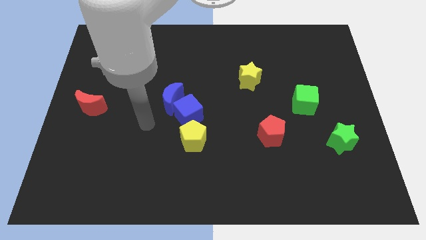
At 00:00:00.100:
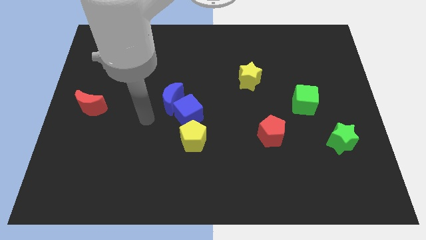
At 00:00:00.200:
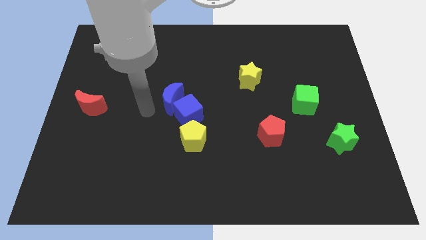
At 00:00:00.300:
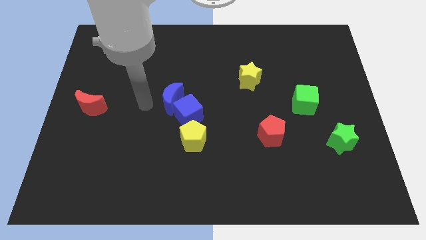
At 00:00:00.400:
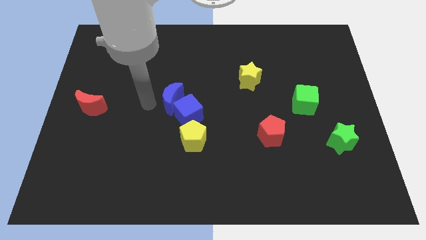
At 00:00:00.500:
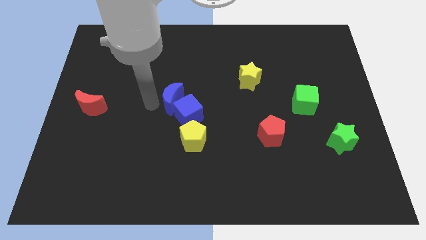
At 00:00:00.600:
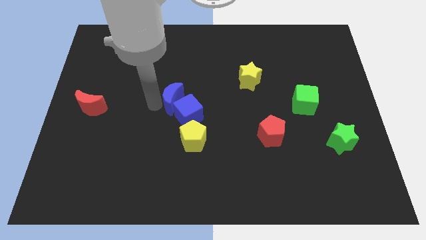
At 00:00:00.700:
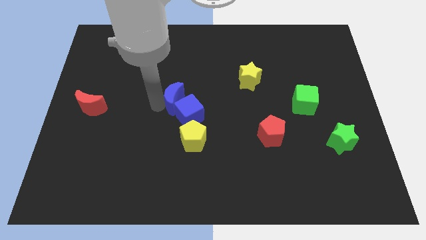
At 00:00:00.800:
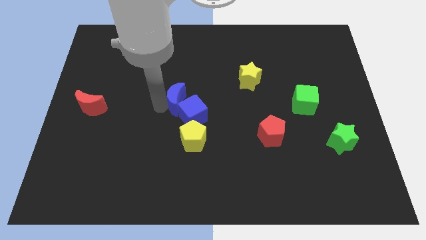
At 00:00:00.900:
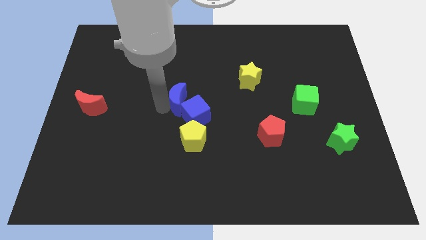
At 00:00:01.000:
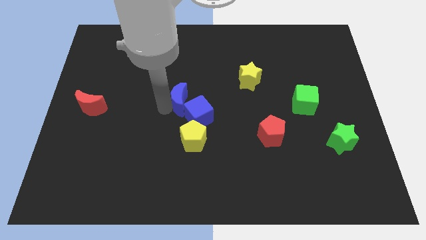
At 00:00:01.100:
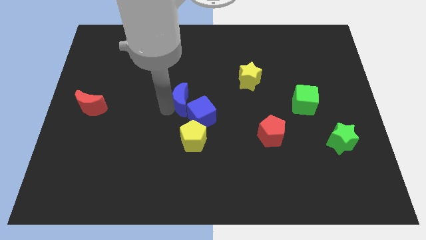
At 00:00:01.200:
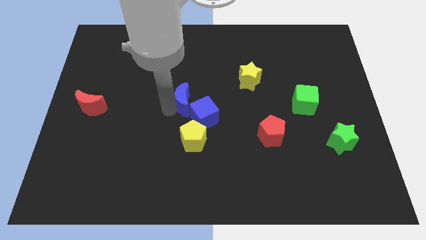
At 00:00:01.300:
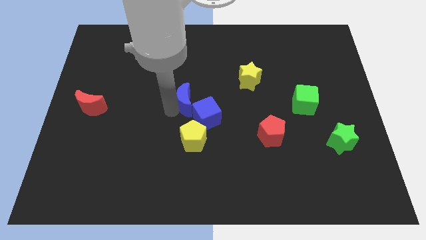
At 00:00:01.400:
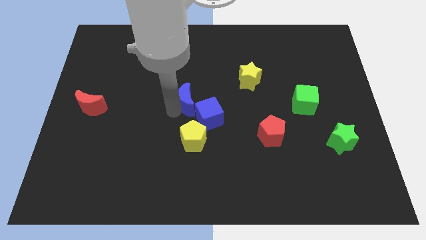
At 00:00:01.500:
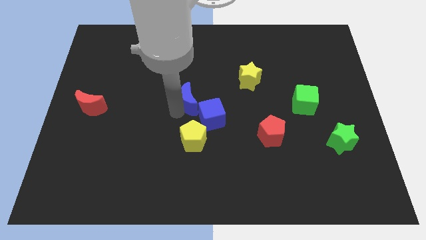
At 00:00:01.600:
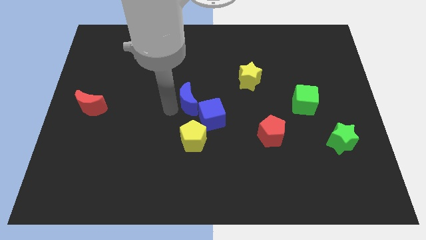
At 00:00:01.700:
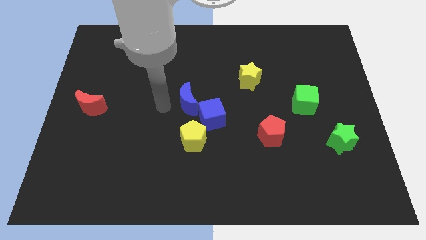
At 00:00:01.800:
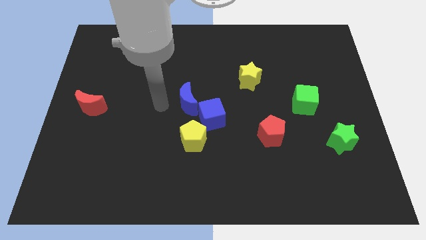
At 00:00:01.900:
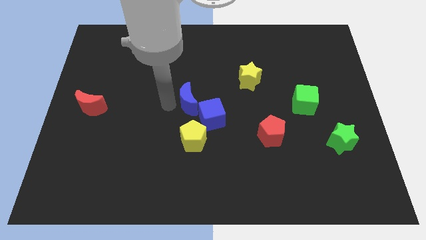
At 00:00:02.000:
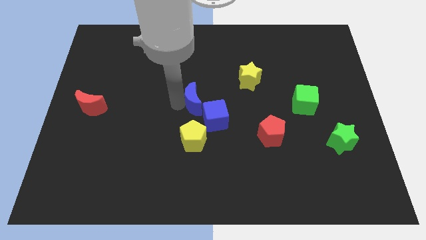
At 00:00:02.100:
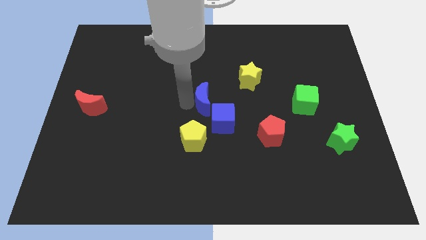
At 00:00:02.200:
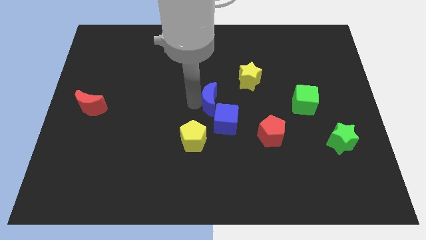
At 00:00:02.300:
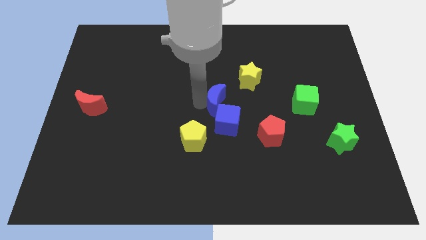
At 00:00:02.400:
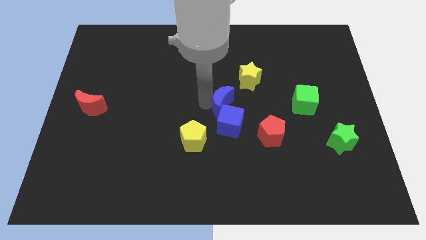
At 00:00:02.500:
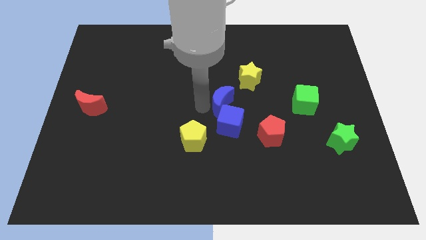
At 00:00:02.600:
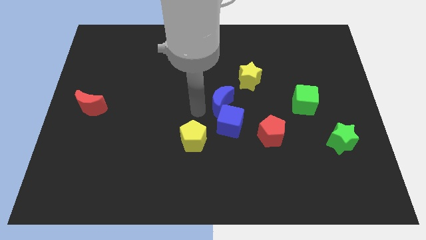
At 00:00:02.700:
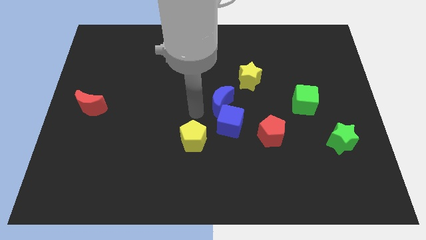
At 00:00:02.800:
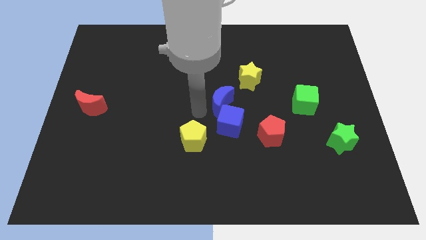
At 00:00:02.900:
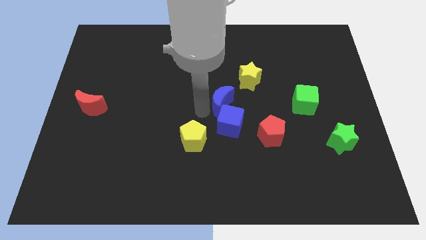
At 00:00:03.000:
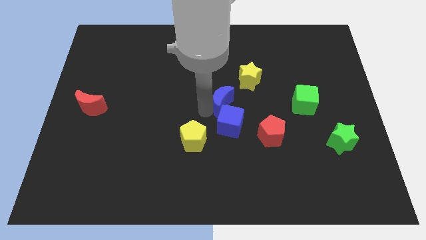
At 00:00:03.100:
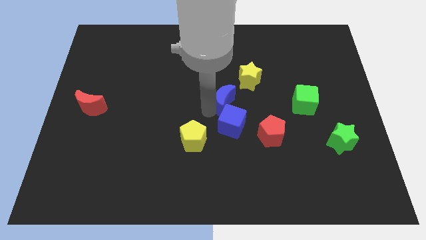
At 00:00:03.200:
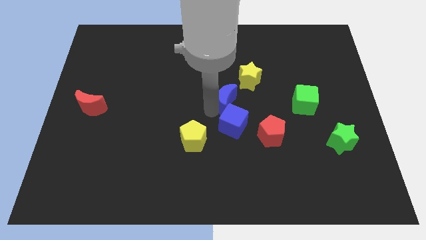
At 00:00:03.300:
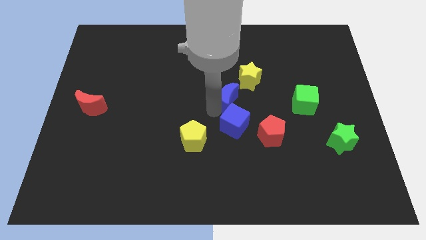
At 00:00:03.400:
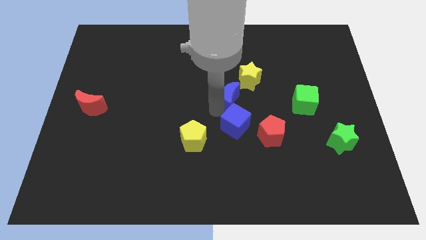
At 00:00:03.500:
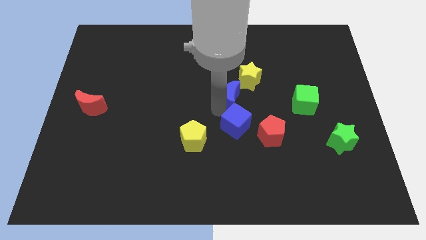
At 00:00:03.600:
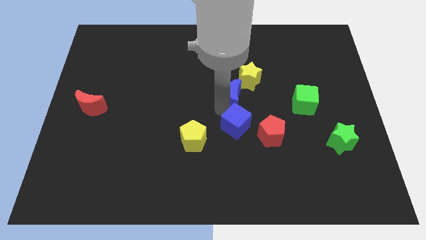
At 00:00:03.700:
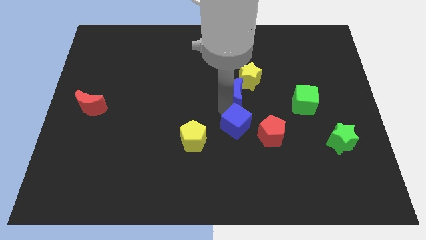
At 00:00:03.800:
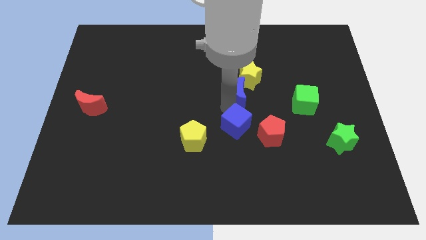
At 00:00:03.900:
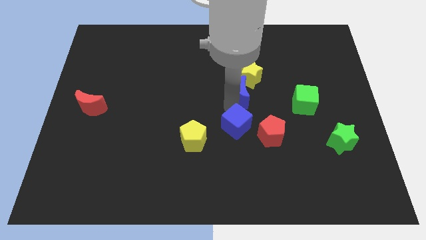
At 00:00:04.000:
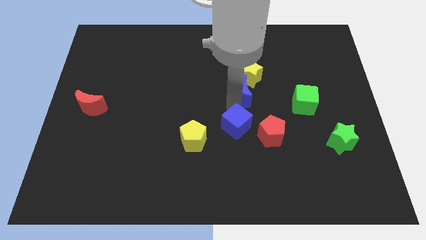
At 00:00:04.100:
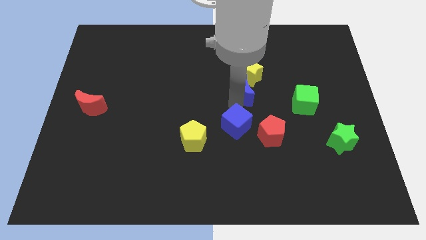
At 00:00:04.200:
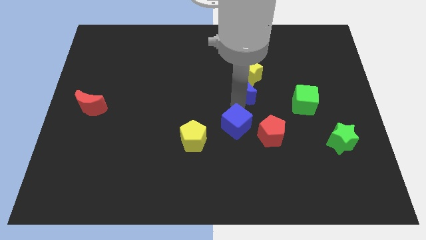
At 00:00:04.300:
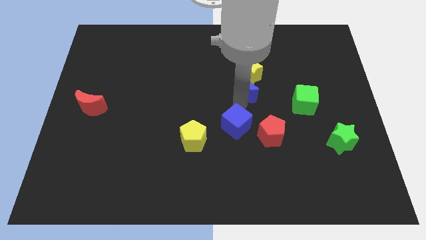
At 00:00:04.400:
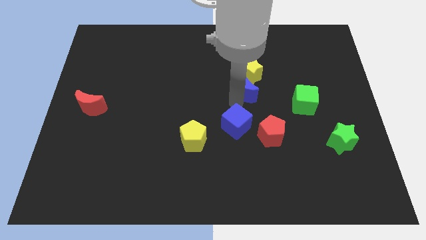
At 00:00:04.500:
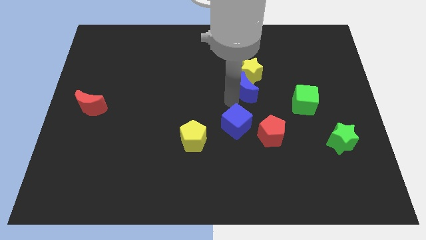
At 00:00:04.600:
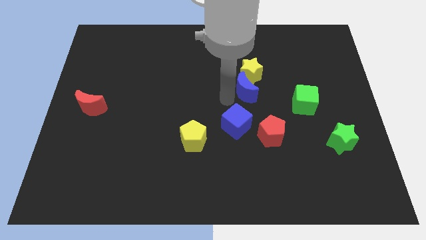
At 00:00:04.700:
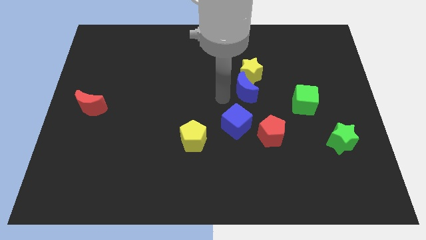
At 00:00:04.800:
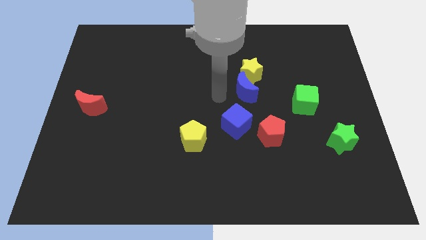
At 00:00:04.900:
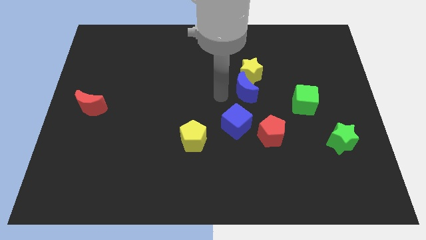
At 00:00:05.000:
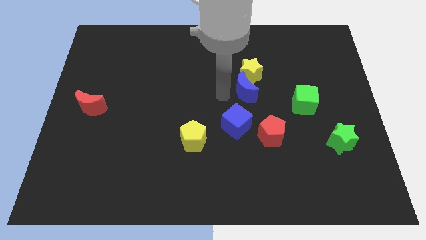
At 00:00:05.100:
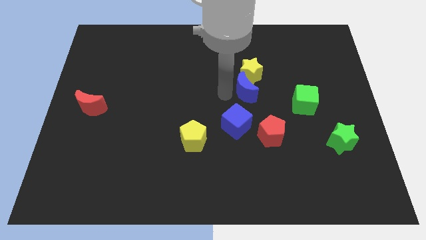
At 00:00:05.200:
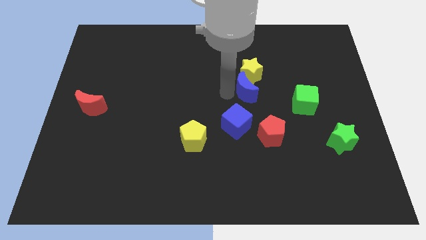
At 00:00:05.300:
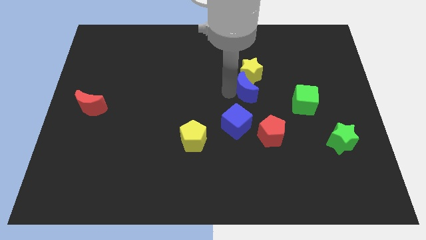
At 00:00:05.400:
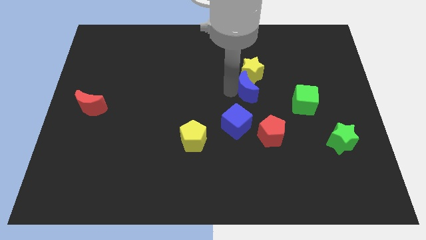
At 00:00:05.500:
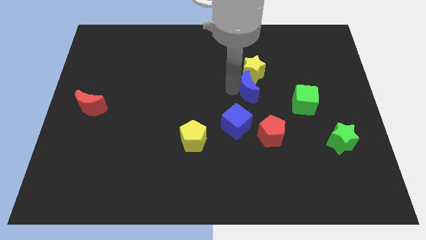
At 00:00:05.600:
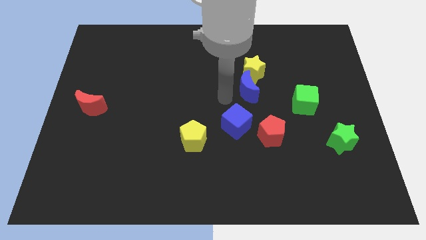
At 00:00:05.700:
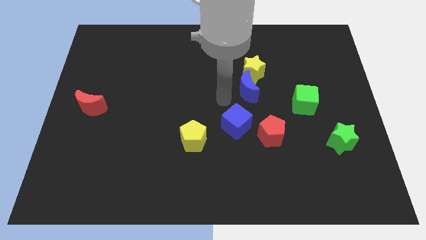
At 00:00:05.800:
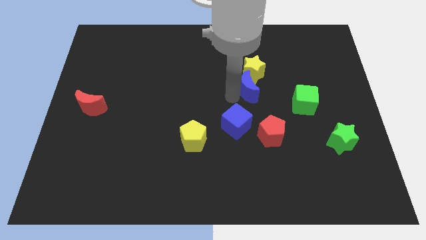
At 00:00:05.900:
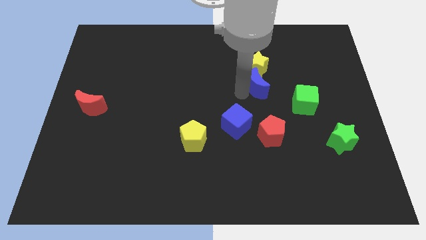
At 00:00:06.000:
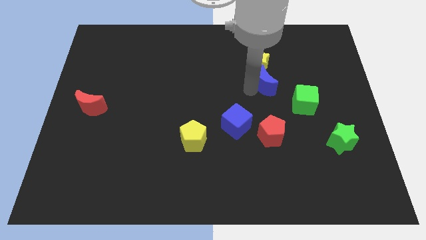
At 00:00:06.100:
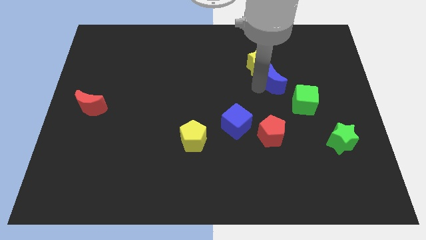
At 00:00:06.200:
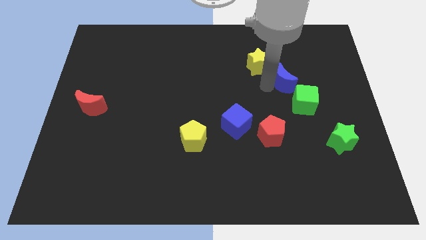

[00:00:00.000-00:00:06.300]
slide the blue moon above the green cube

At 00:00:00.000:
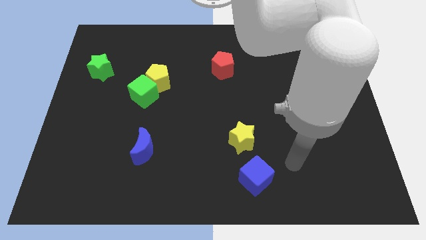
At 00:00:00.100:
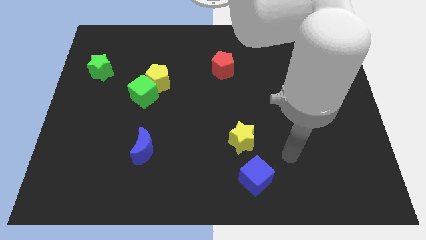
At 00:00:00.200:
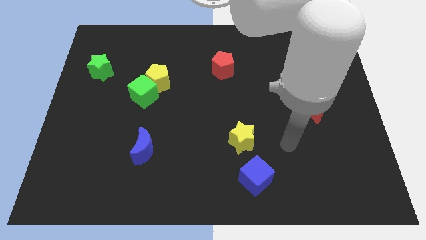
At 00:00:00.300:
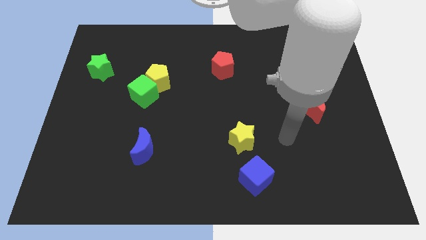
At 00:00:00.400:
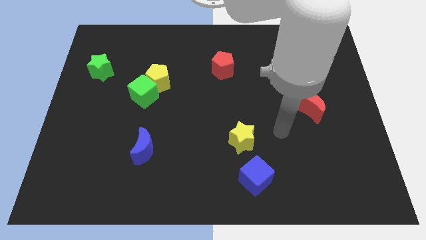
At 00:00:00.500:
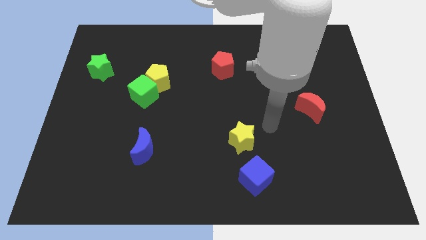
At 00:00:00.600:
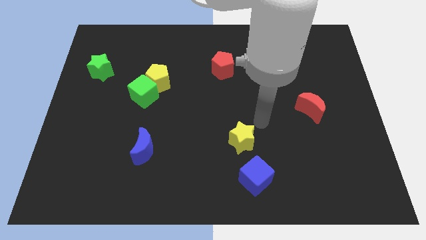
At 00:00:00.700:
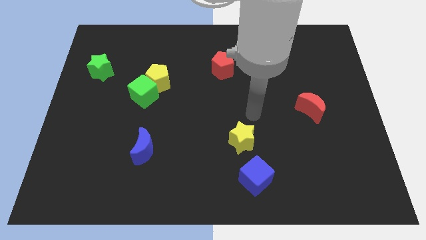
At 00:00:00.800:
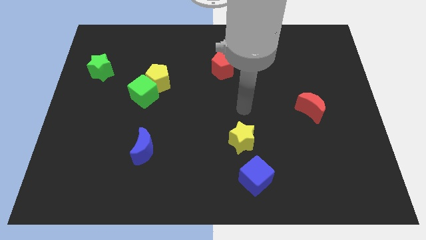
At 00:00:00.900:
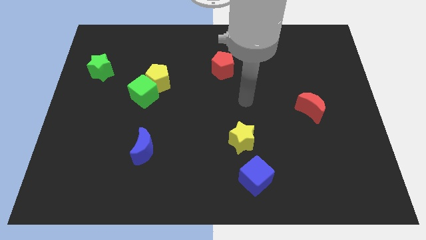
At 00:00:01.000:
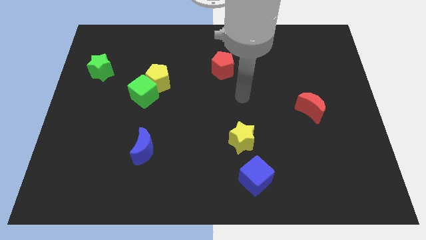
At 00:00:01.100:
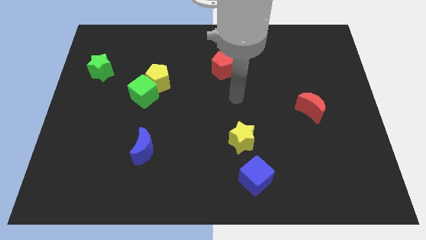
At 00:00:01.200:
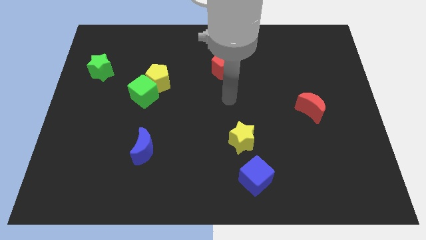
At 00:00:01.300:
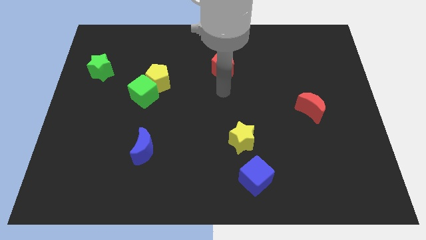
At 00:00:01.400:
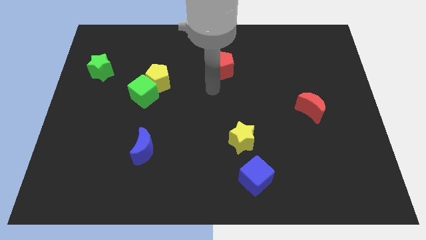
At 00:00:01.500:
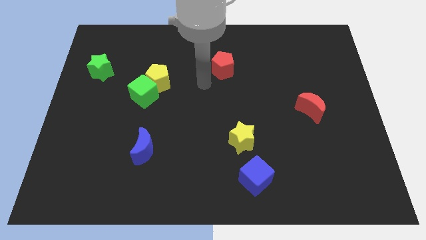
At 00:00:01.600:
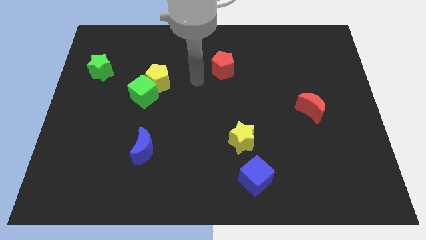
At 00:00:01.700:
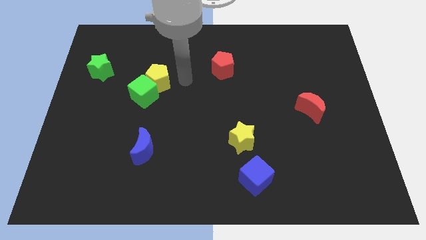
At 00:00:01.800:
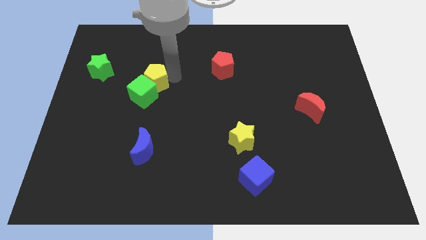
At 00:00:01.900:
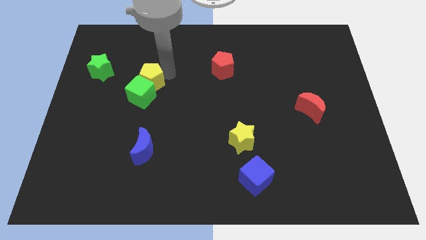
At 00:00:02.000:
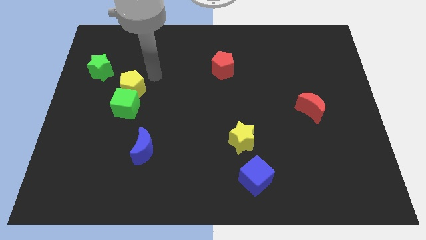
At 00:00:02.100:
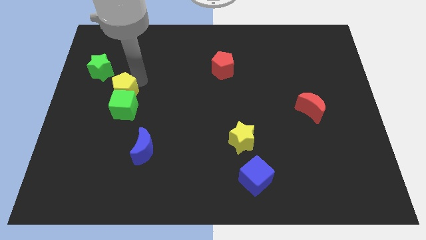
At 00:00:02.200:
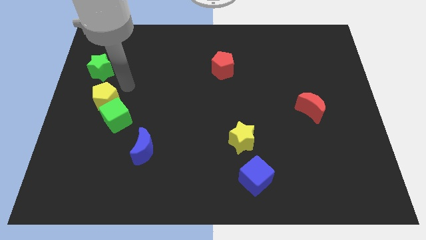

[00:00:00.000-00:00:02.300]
slide the green cube to the top left of the blue moon
